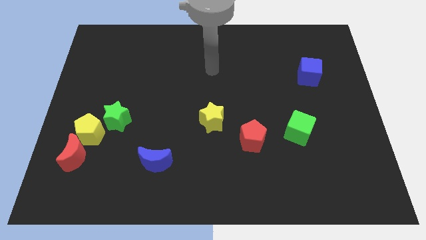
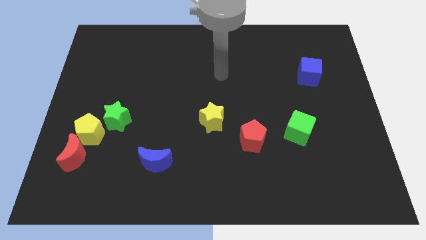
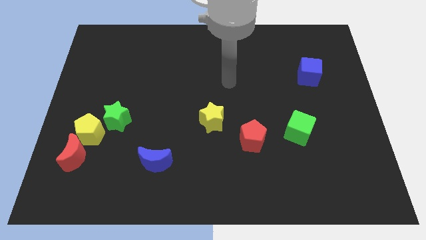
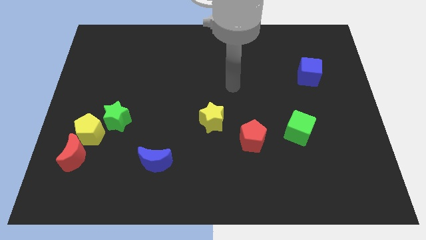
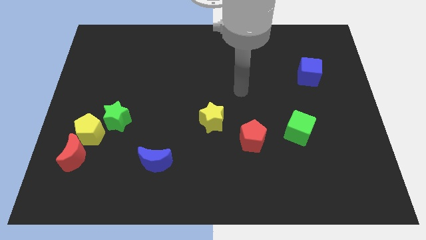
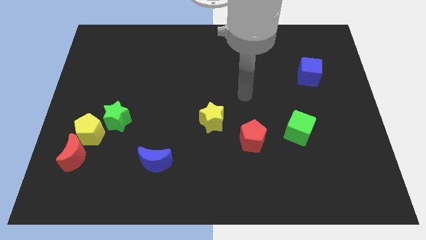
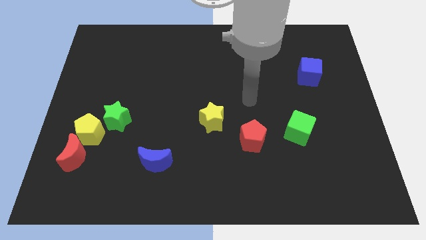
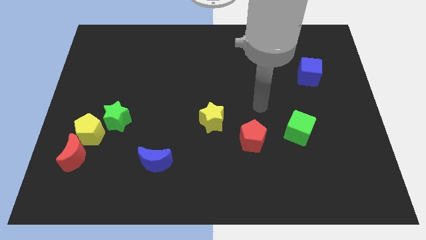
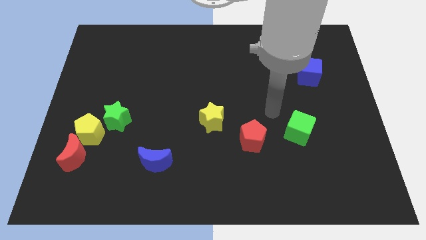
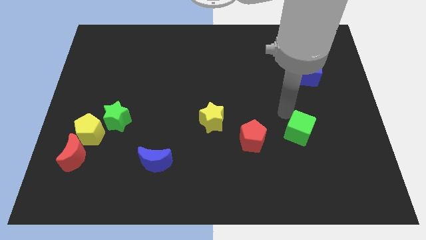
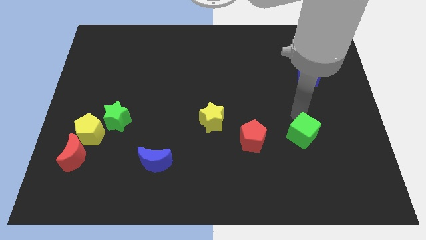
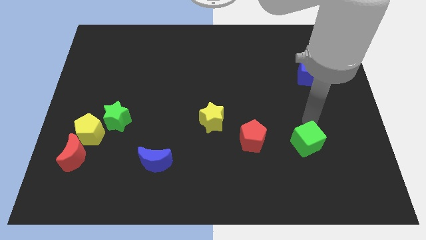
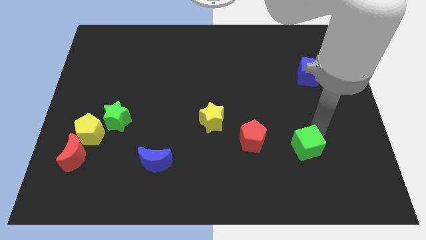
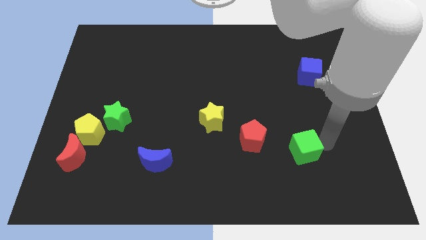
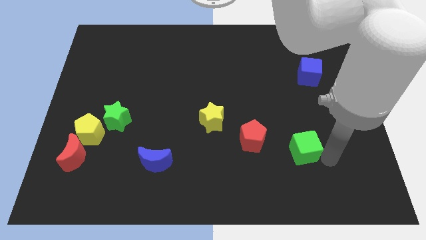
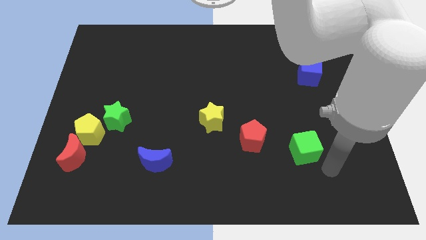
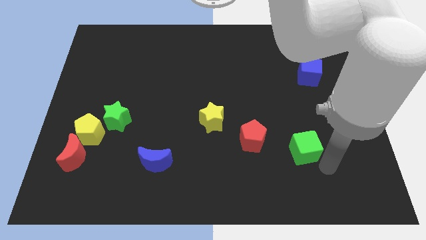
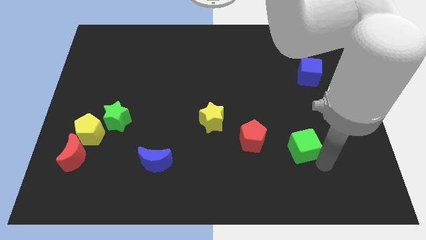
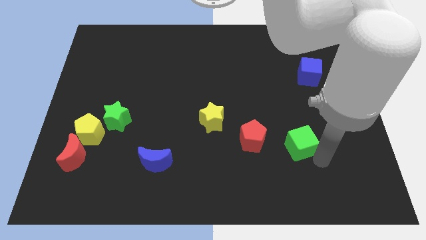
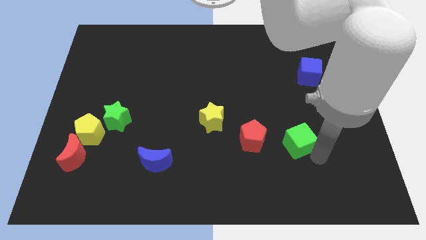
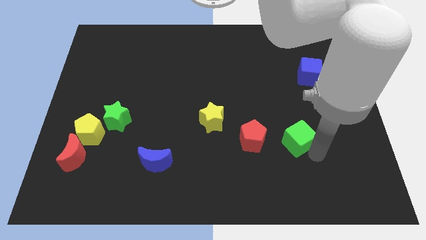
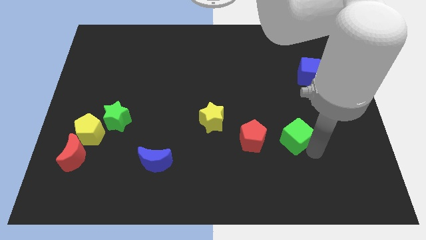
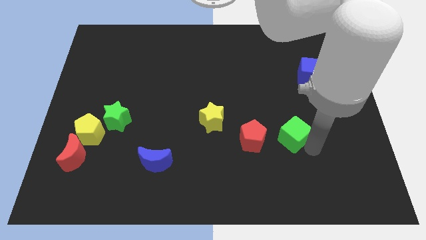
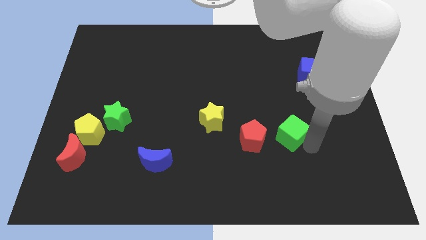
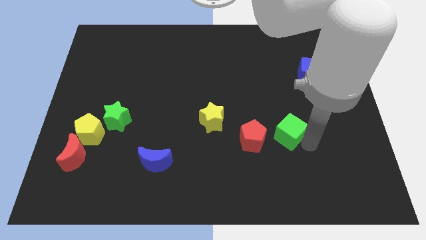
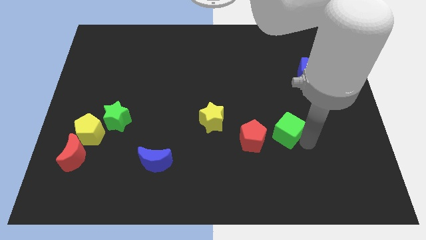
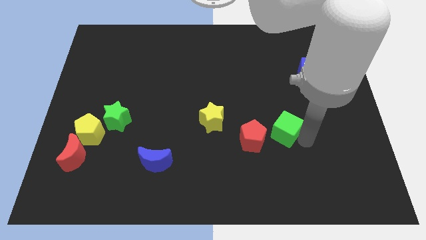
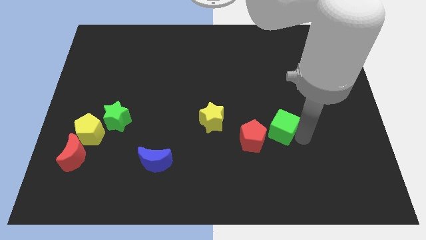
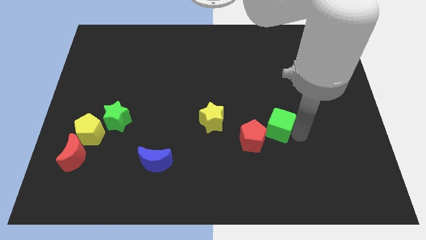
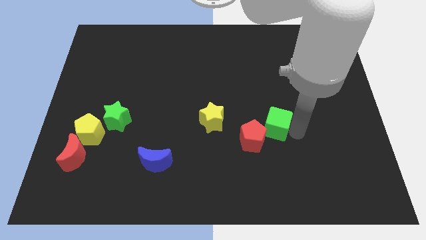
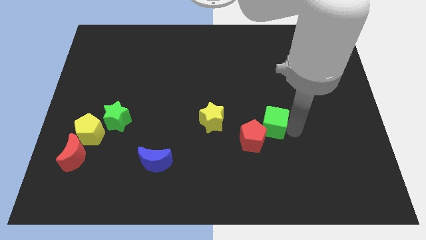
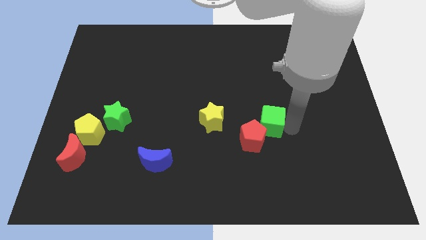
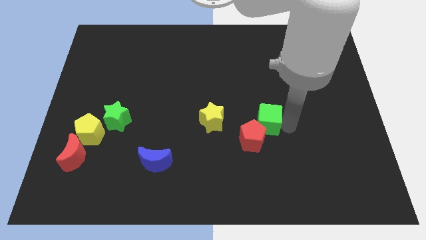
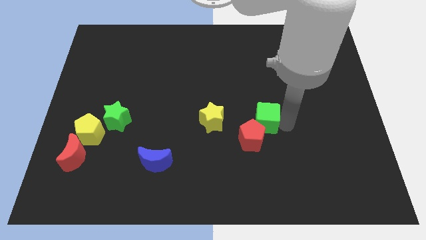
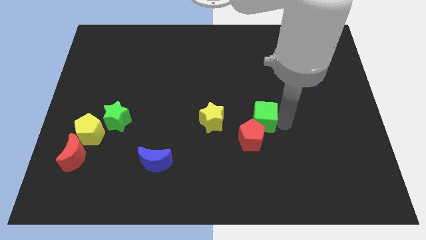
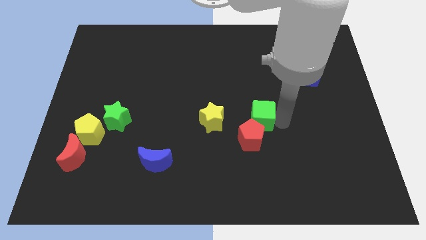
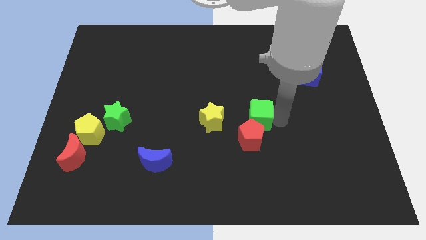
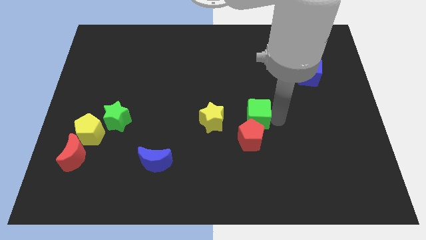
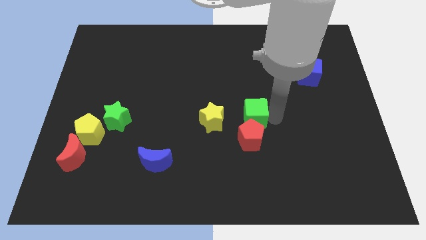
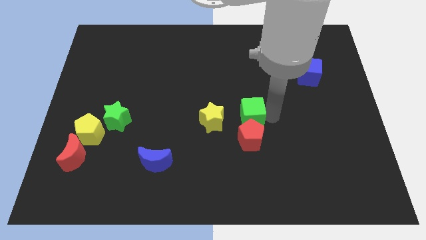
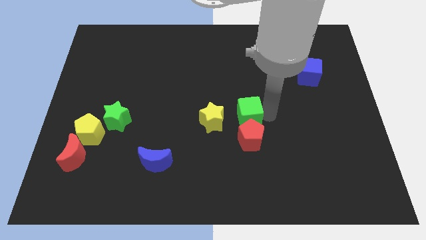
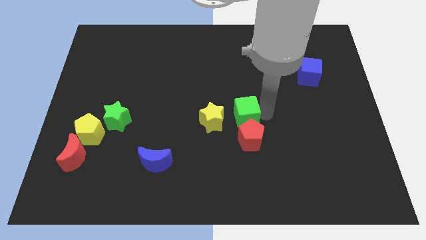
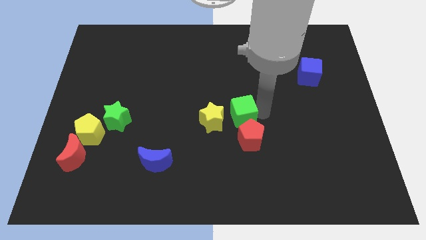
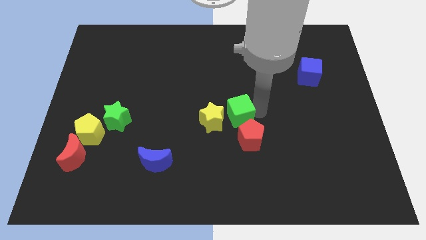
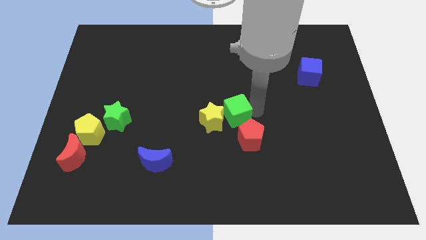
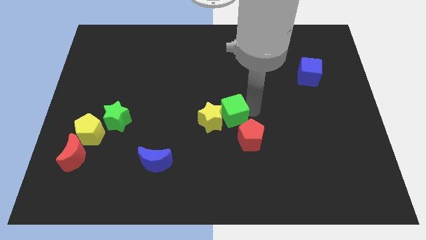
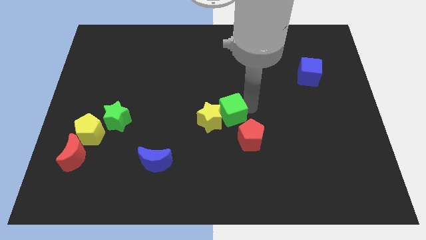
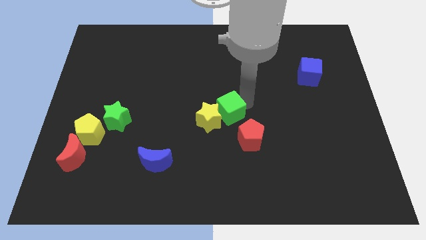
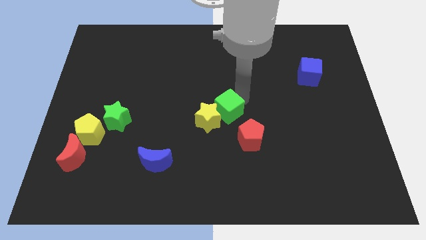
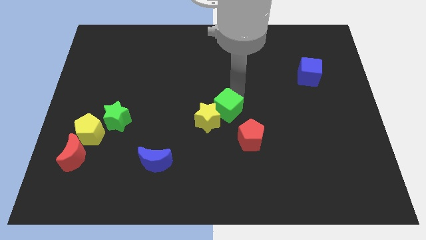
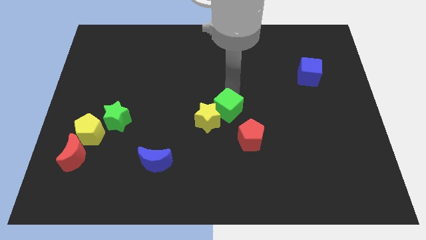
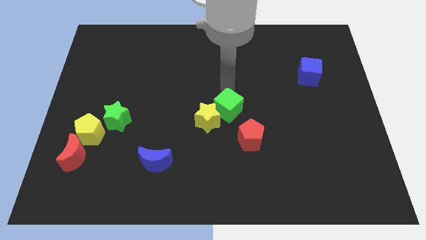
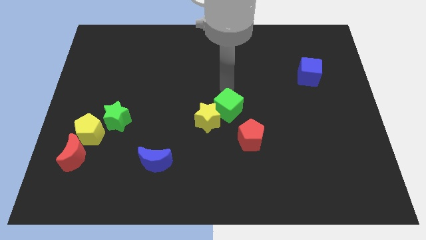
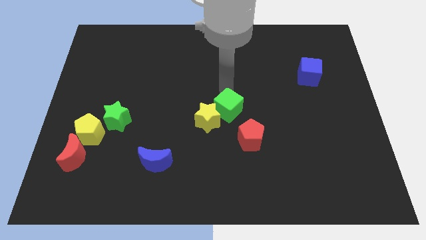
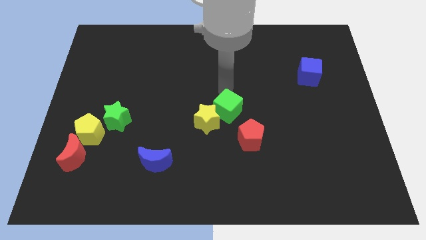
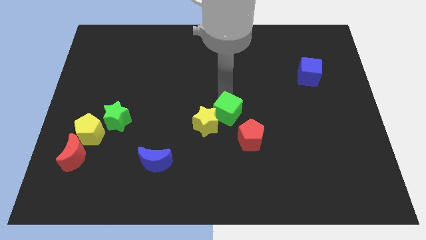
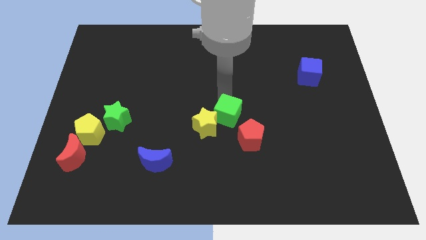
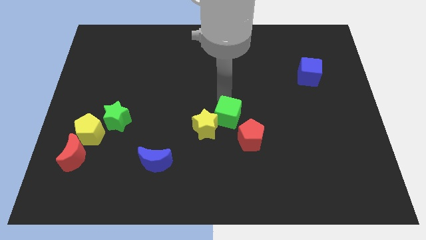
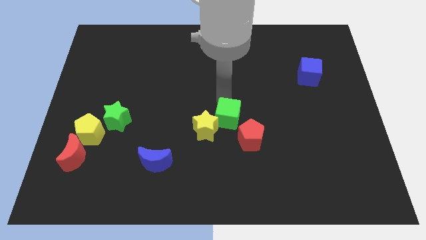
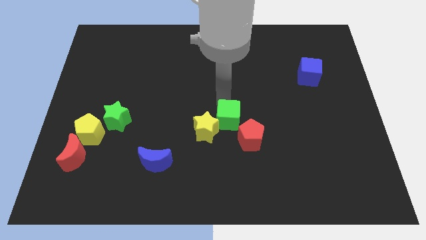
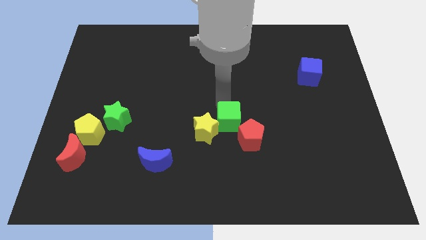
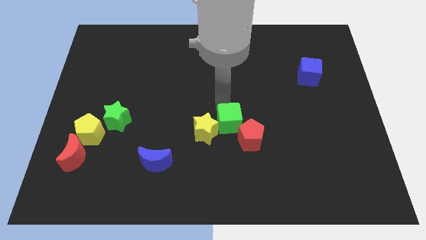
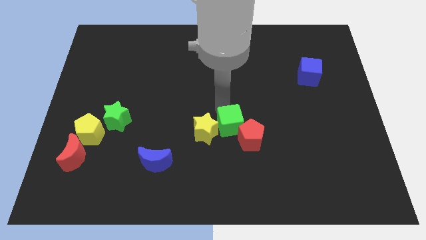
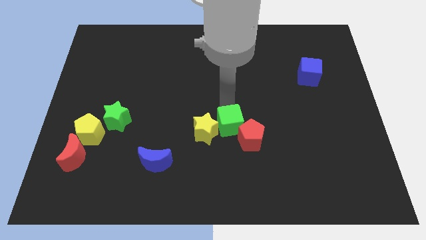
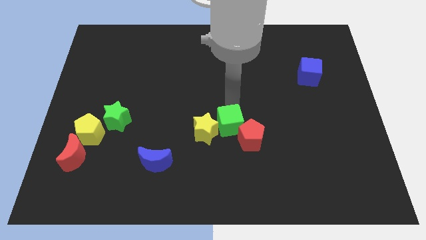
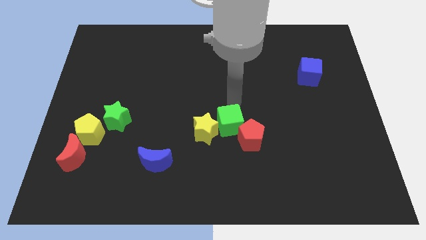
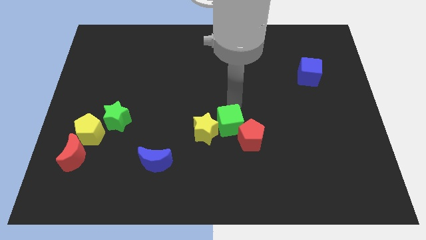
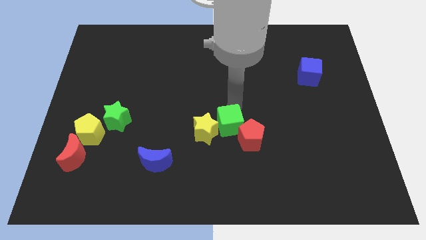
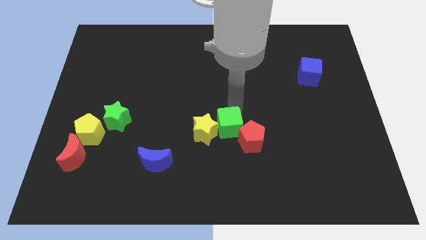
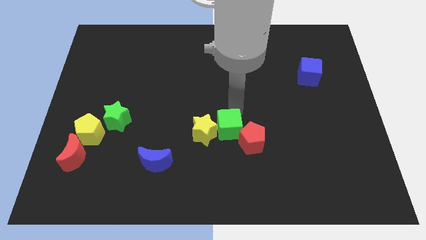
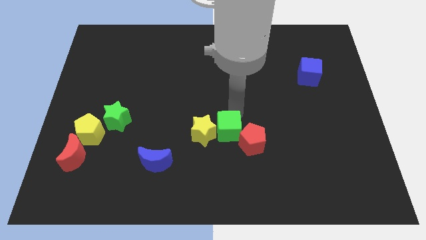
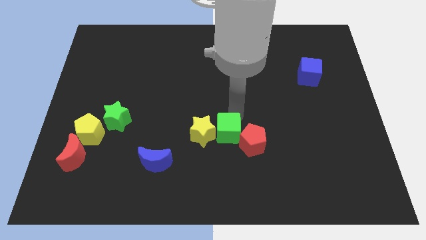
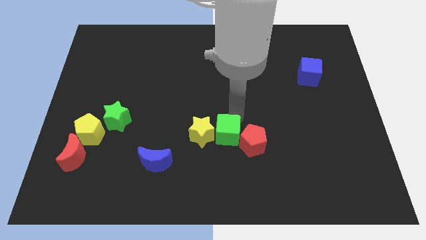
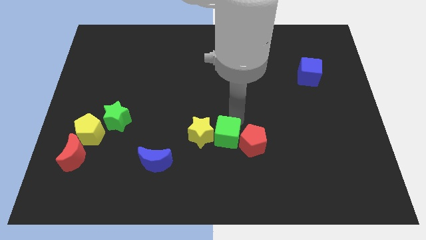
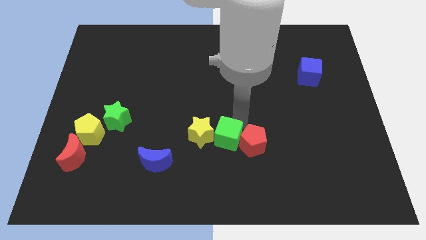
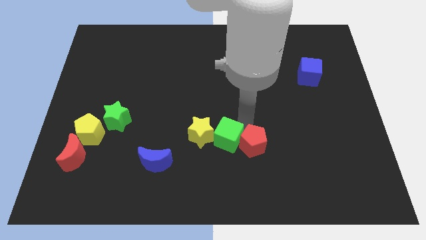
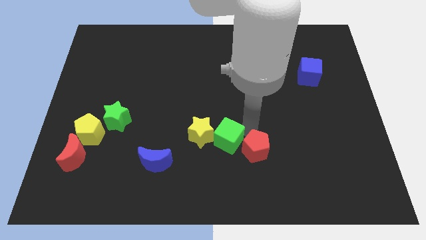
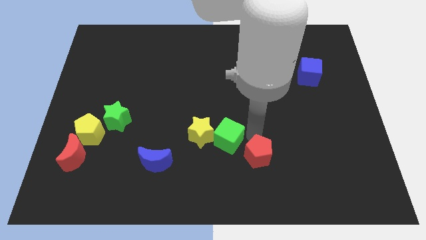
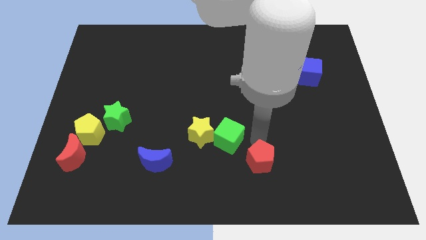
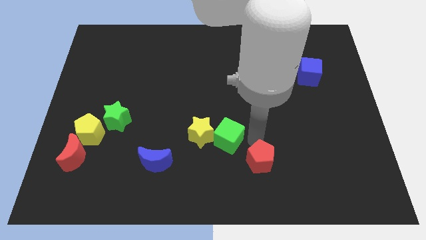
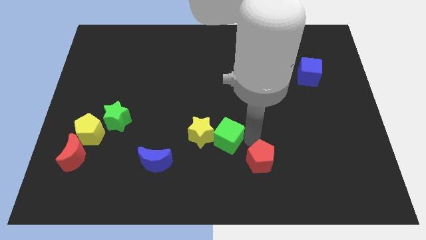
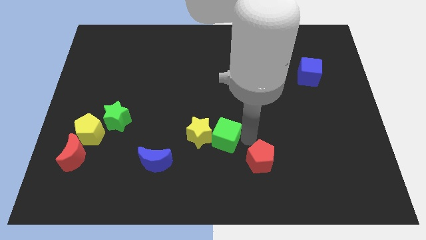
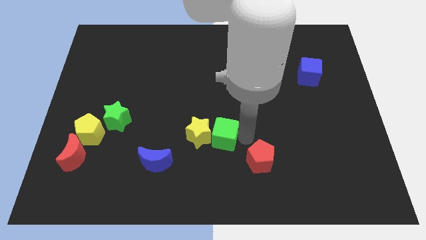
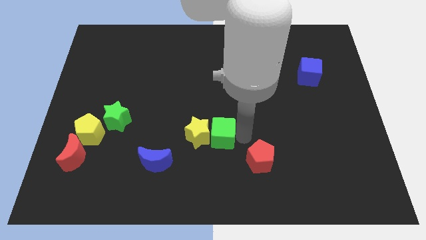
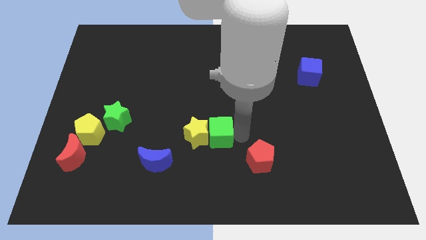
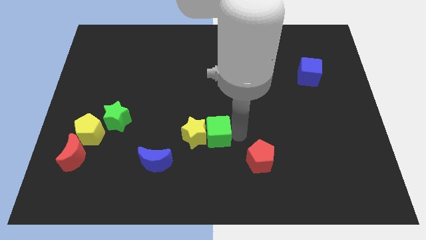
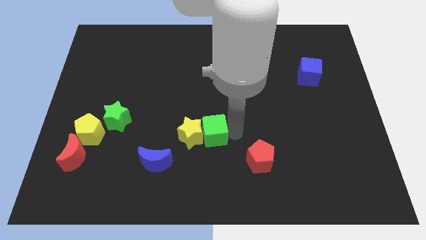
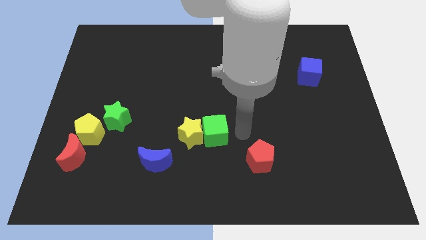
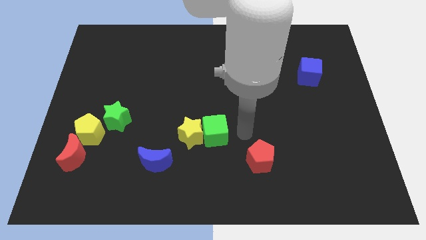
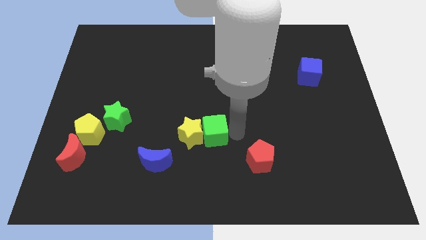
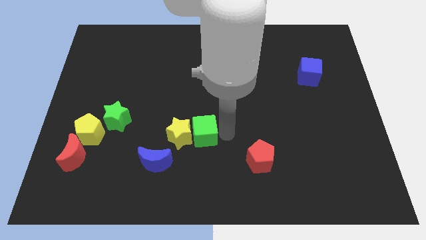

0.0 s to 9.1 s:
slide the green cube left
